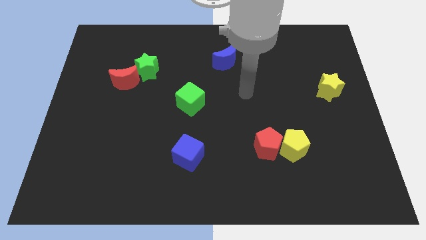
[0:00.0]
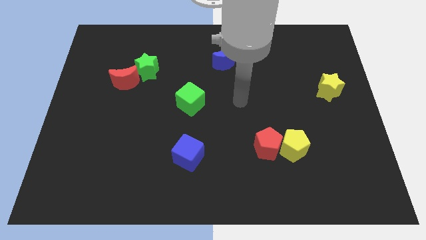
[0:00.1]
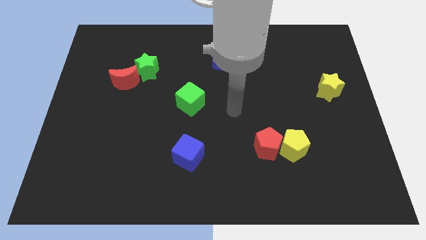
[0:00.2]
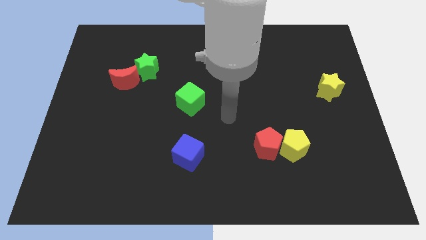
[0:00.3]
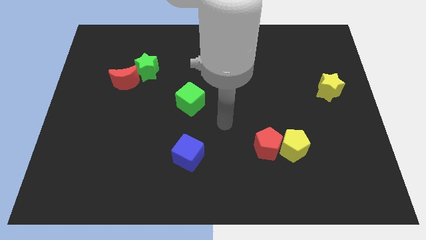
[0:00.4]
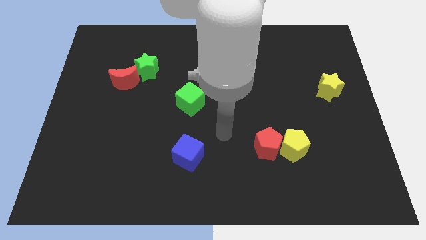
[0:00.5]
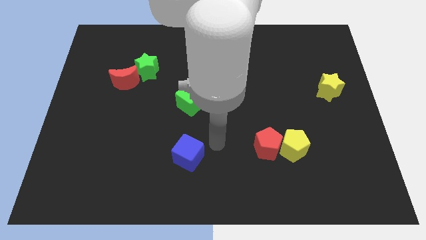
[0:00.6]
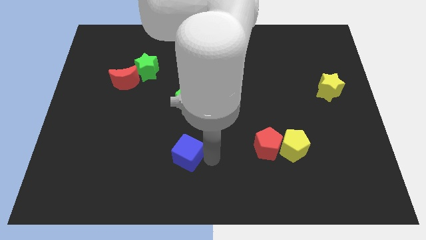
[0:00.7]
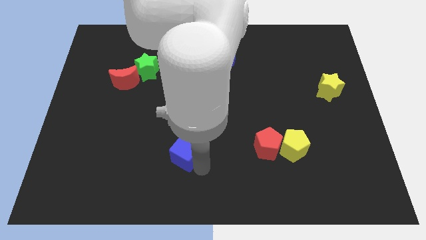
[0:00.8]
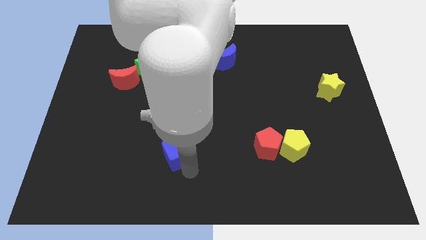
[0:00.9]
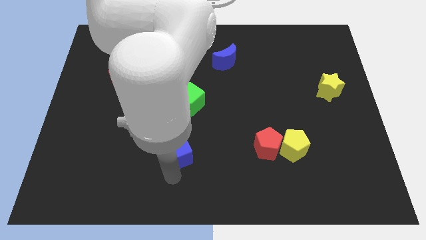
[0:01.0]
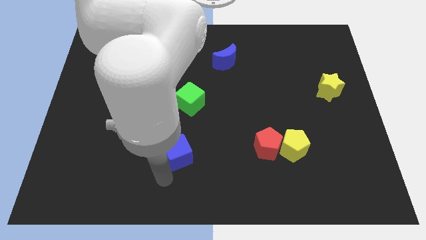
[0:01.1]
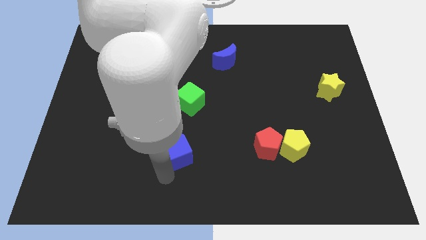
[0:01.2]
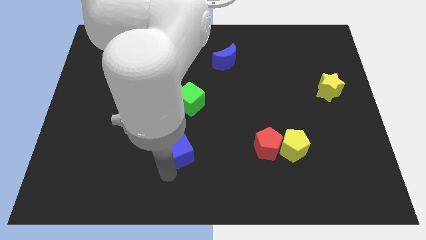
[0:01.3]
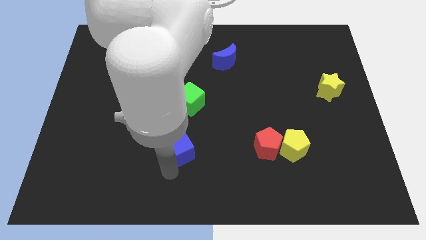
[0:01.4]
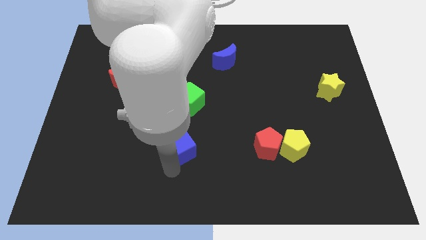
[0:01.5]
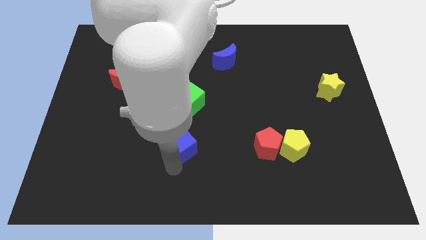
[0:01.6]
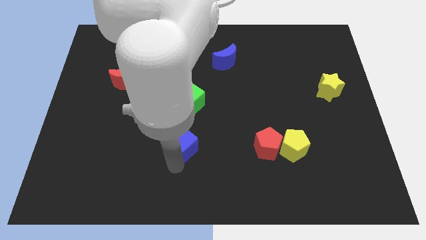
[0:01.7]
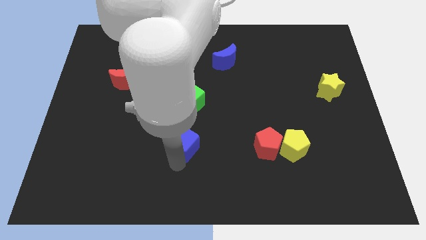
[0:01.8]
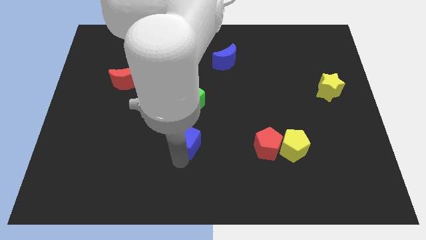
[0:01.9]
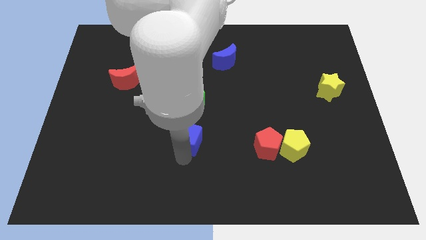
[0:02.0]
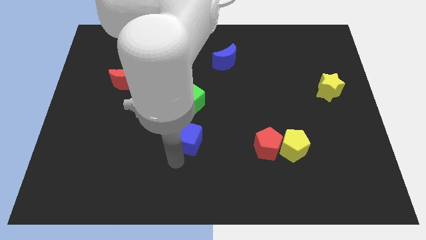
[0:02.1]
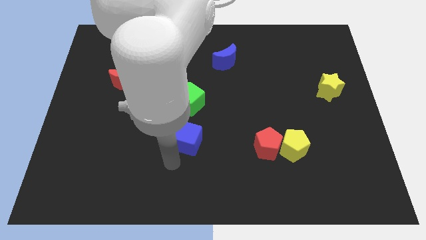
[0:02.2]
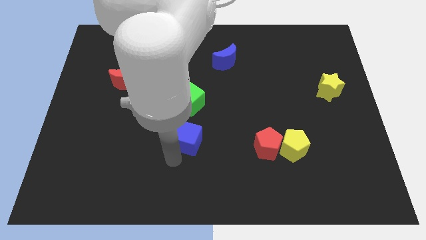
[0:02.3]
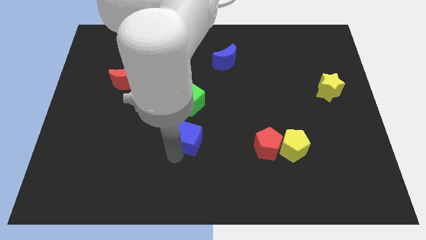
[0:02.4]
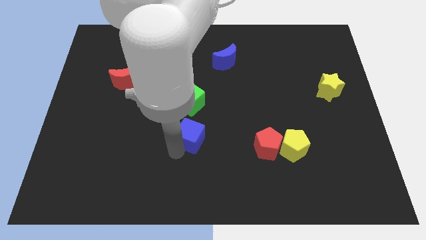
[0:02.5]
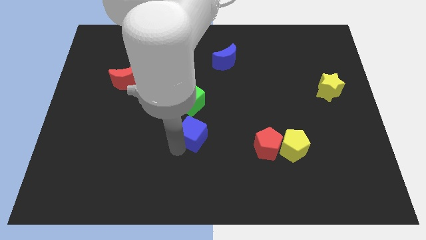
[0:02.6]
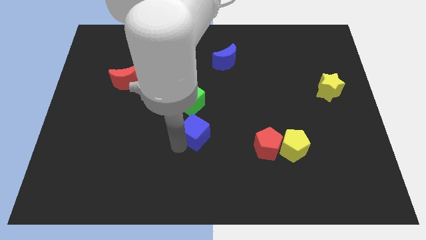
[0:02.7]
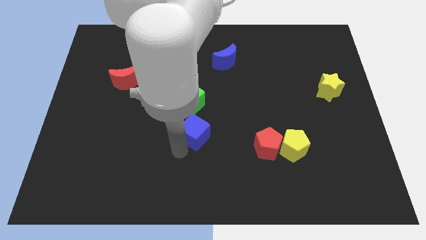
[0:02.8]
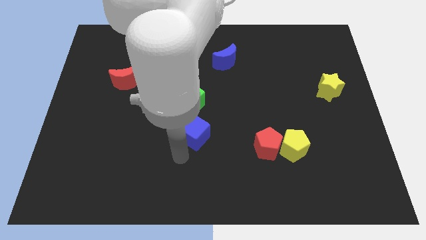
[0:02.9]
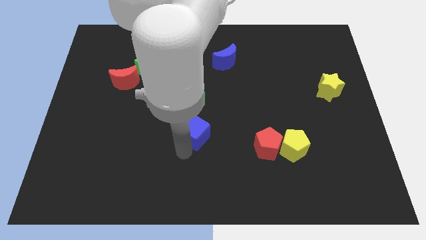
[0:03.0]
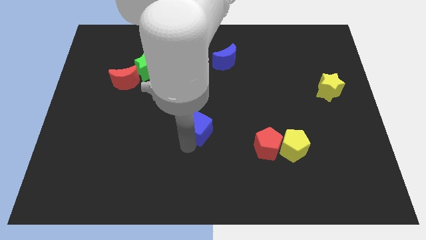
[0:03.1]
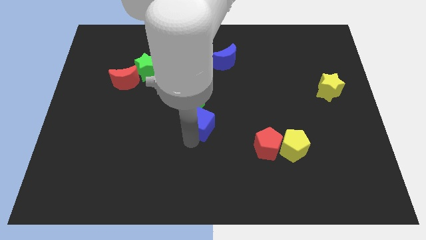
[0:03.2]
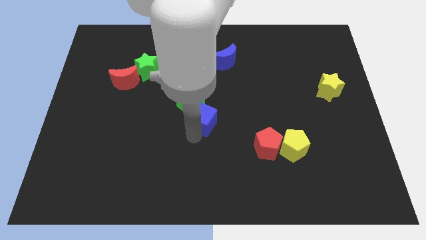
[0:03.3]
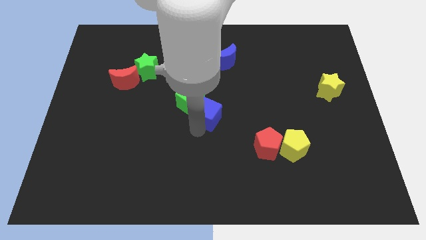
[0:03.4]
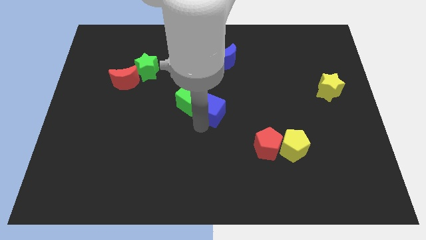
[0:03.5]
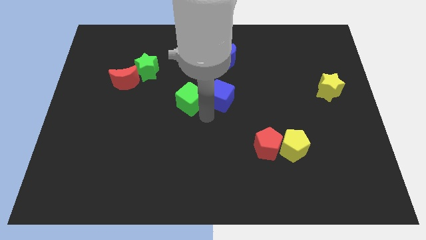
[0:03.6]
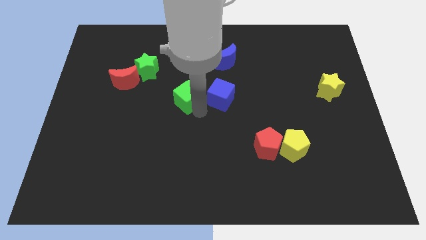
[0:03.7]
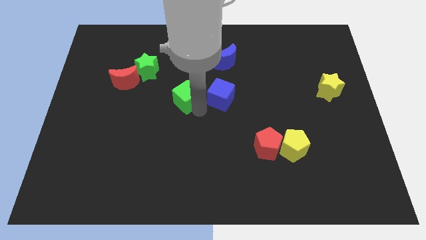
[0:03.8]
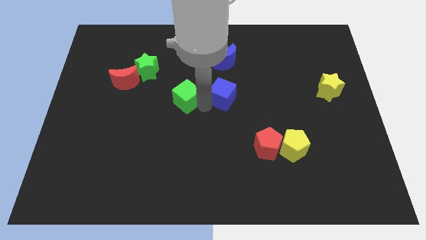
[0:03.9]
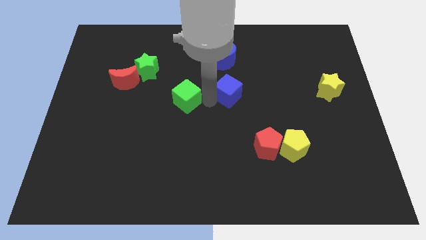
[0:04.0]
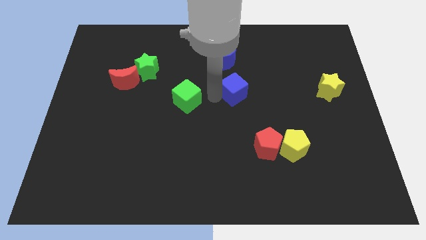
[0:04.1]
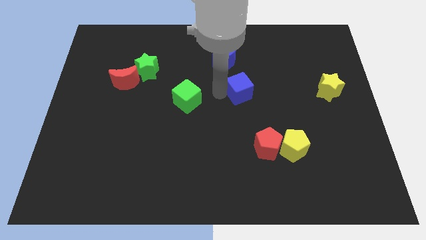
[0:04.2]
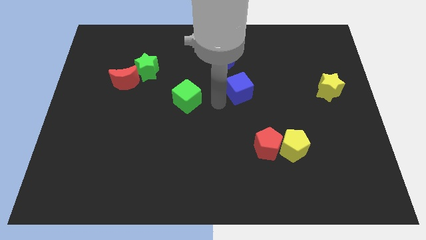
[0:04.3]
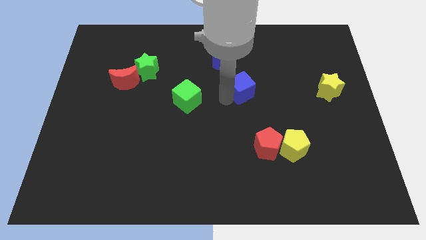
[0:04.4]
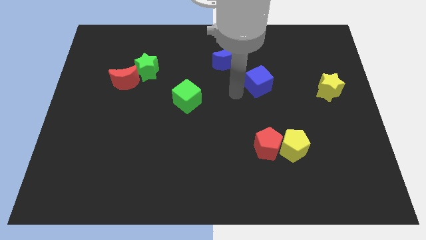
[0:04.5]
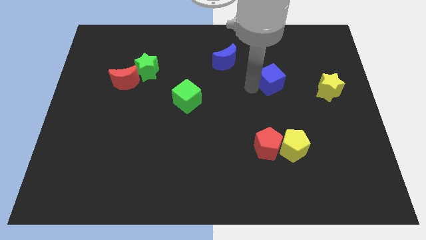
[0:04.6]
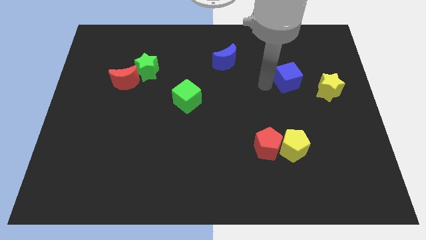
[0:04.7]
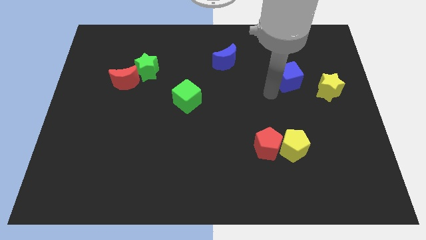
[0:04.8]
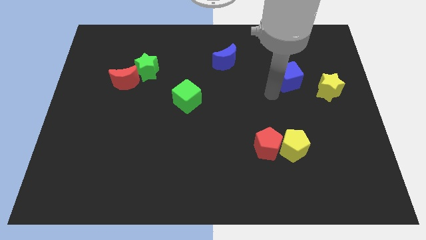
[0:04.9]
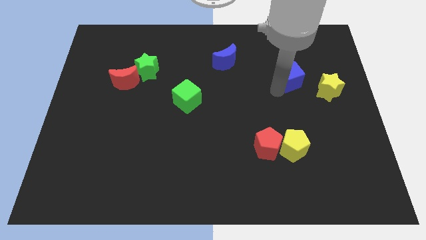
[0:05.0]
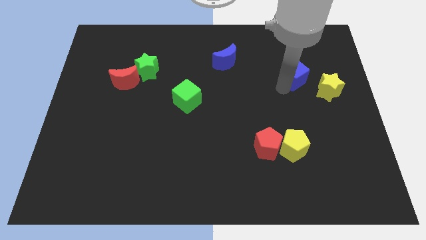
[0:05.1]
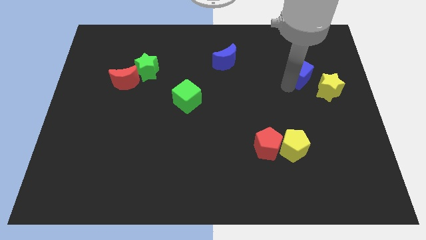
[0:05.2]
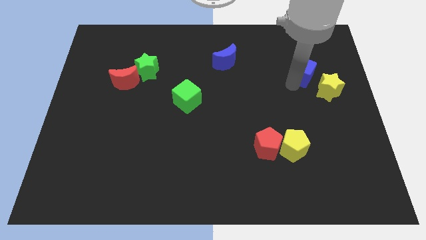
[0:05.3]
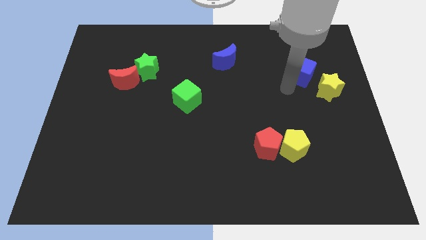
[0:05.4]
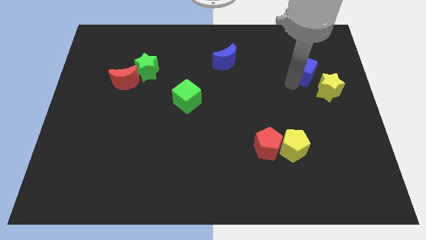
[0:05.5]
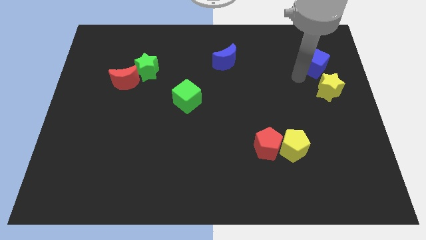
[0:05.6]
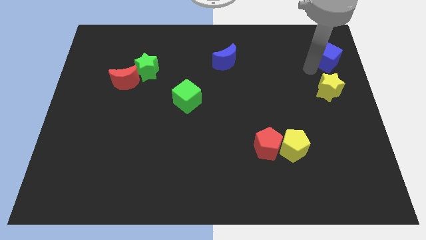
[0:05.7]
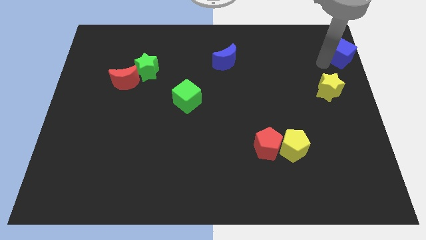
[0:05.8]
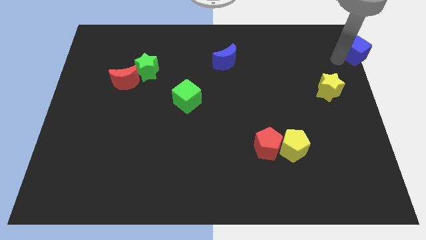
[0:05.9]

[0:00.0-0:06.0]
put the blue cube to the top right
